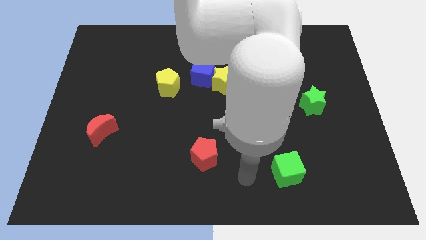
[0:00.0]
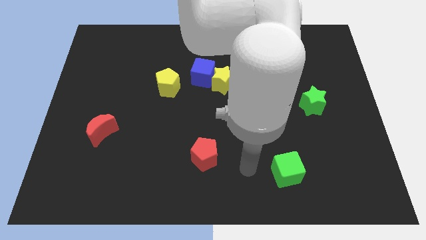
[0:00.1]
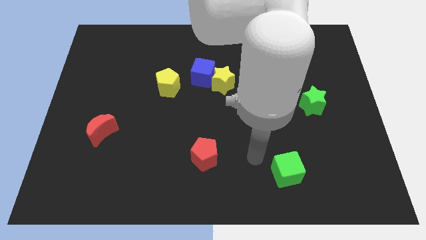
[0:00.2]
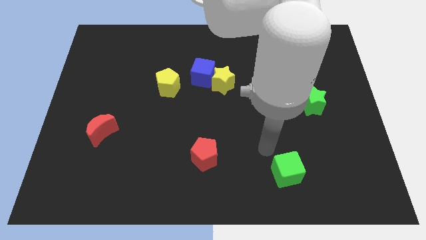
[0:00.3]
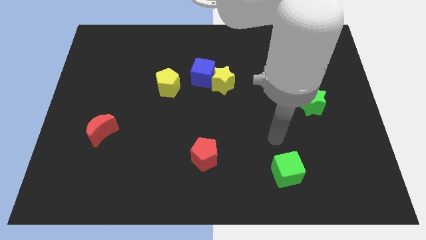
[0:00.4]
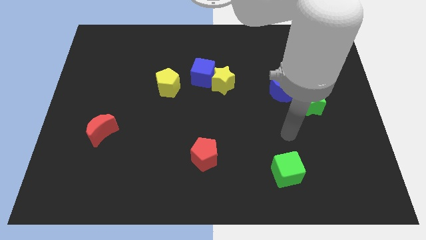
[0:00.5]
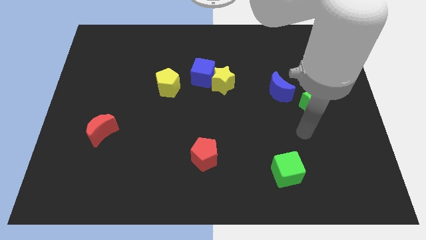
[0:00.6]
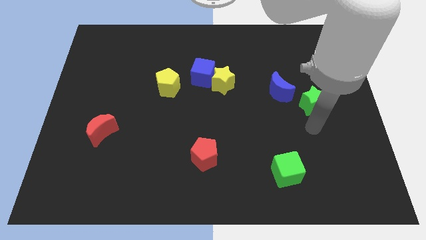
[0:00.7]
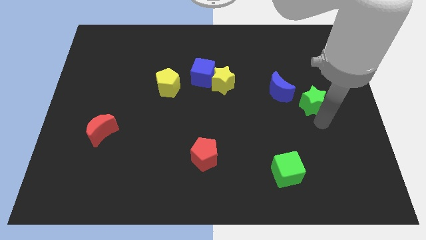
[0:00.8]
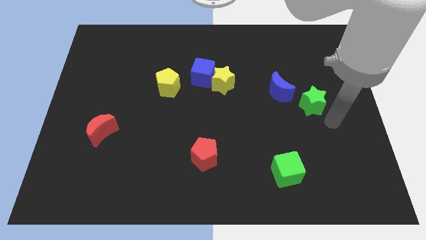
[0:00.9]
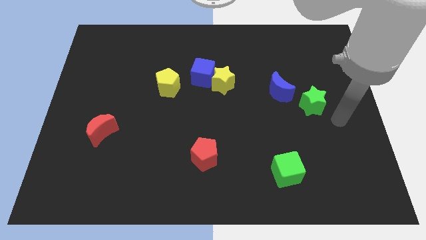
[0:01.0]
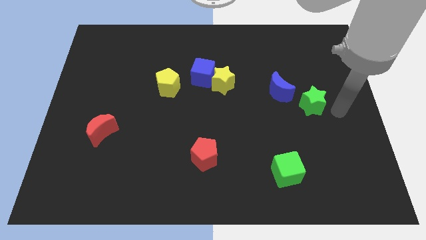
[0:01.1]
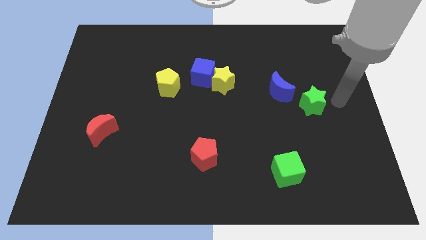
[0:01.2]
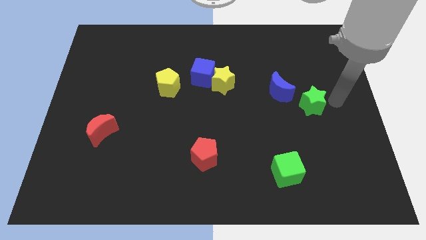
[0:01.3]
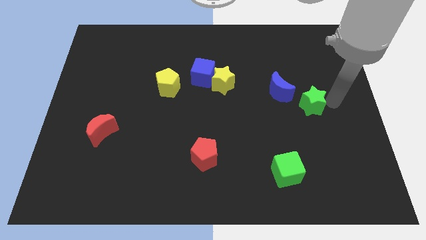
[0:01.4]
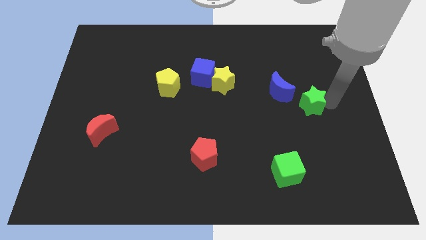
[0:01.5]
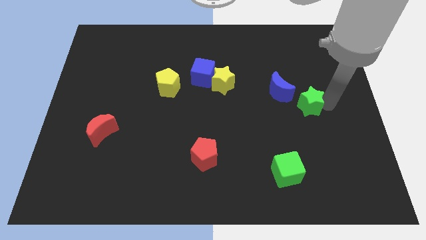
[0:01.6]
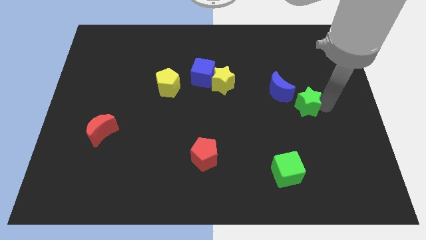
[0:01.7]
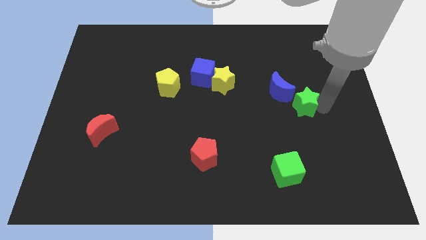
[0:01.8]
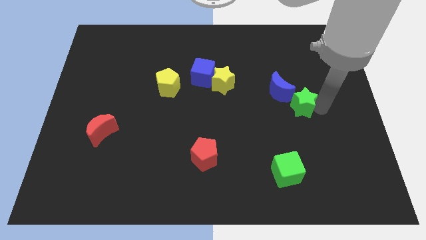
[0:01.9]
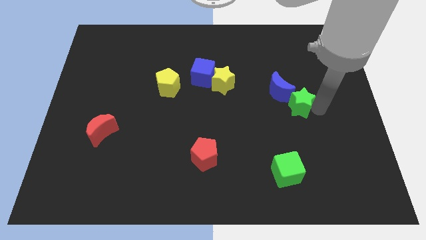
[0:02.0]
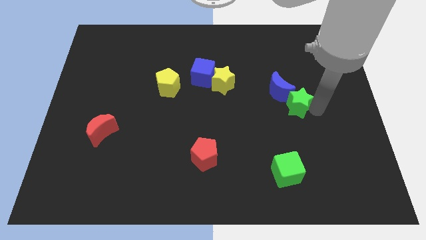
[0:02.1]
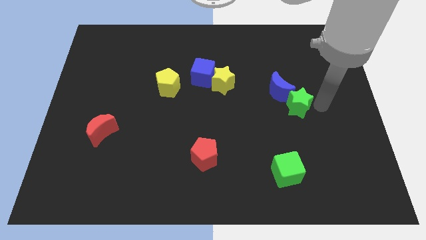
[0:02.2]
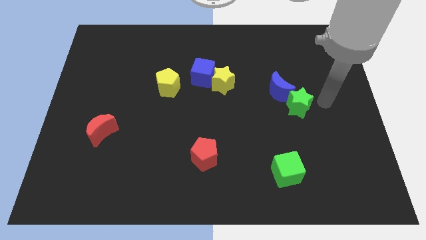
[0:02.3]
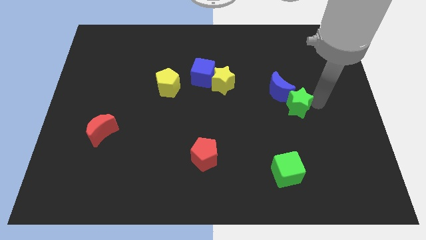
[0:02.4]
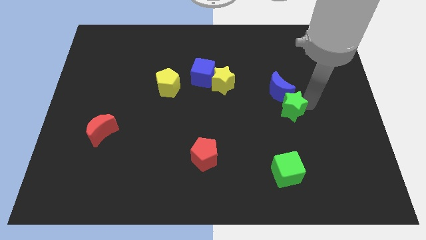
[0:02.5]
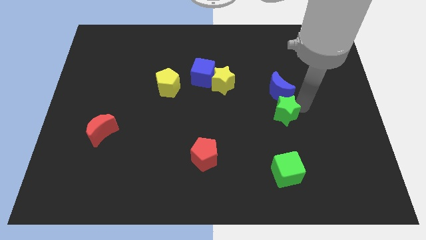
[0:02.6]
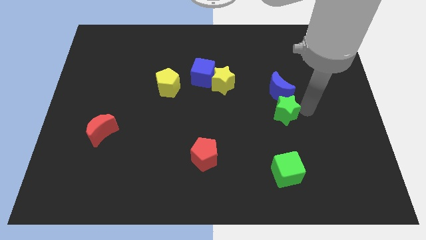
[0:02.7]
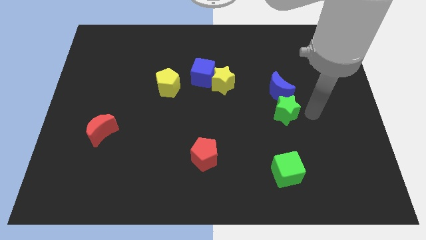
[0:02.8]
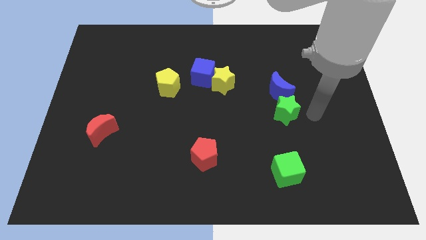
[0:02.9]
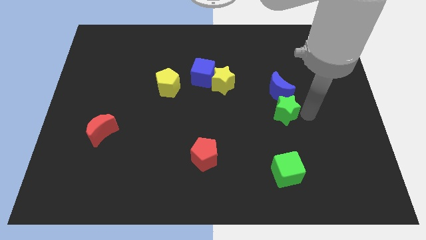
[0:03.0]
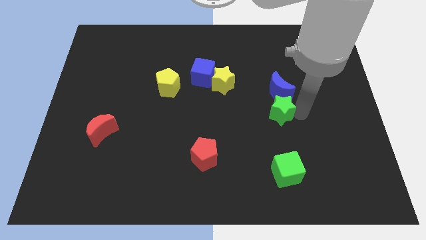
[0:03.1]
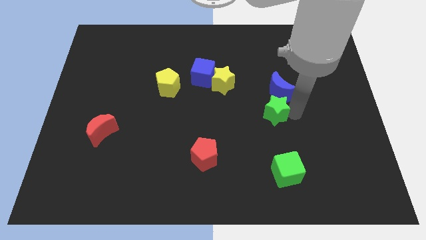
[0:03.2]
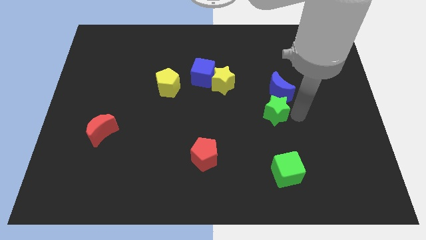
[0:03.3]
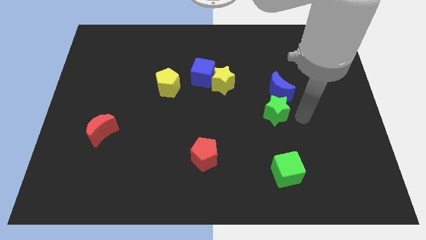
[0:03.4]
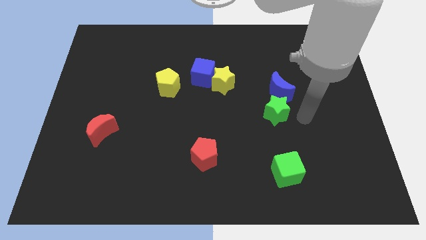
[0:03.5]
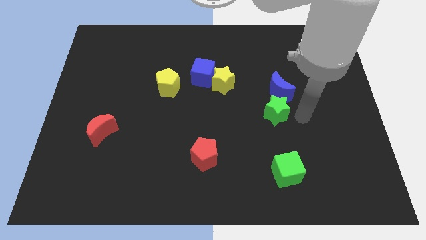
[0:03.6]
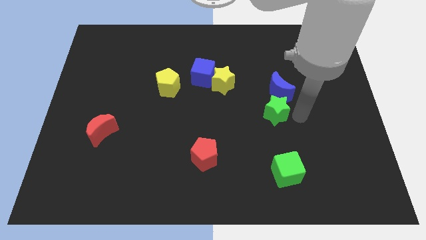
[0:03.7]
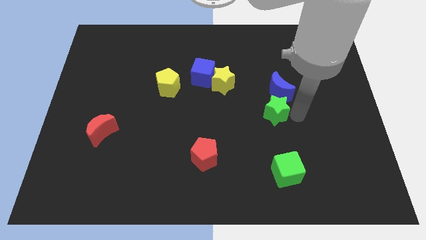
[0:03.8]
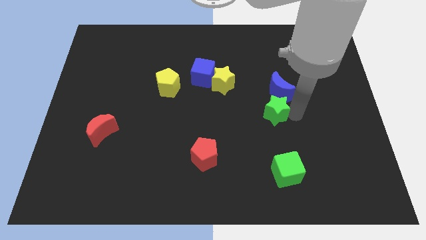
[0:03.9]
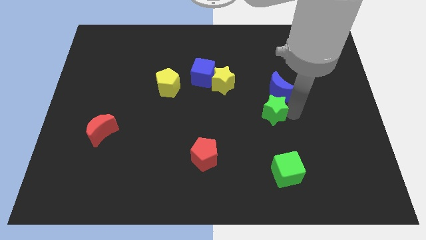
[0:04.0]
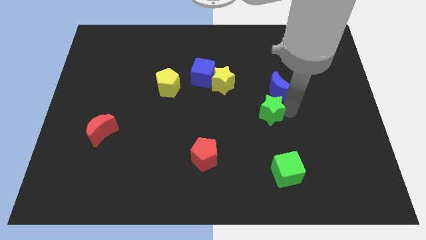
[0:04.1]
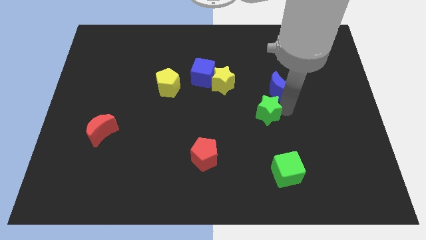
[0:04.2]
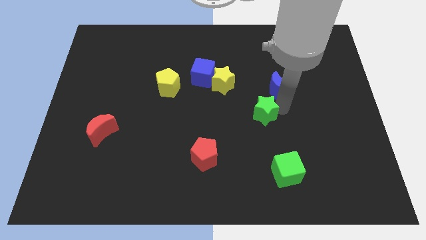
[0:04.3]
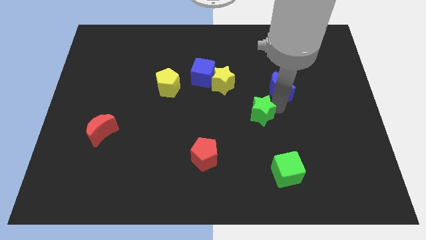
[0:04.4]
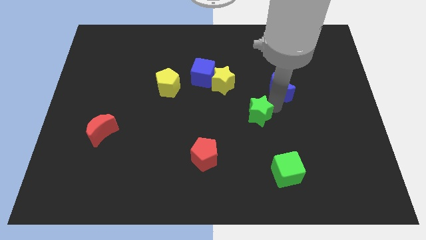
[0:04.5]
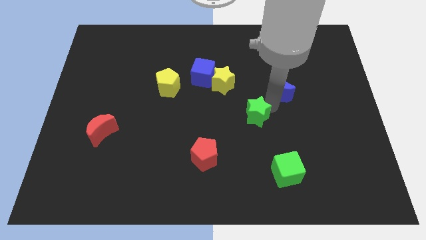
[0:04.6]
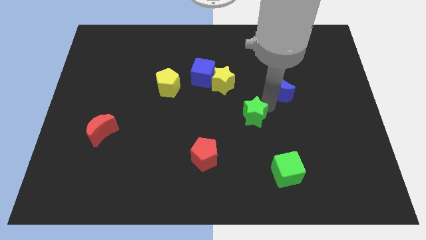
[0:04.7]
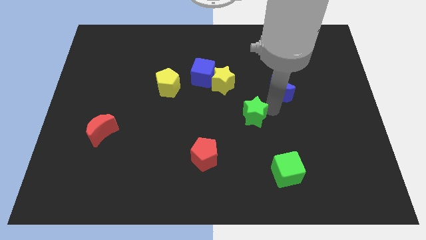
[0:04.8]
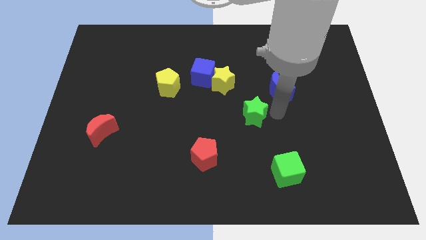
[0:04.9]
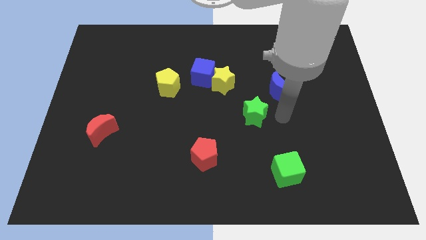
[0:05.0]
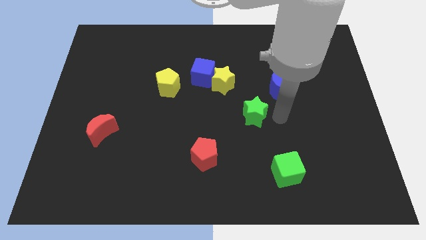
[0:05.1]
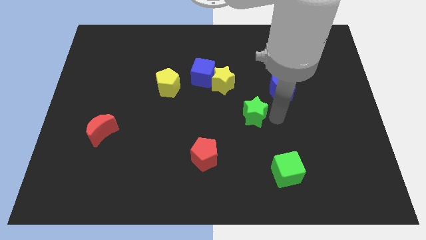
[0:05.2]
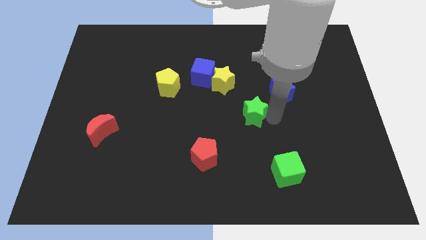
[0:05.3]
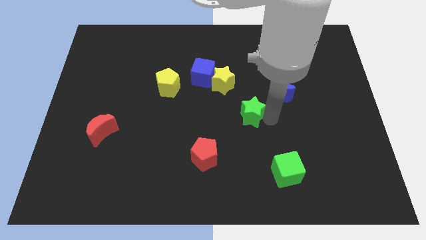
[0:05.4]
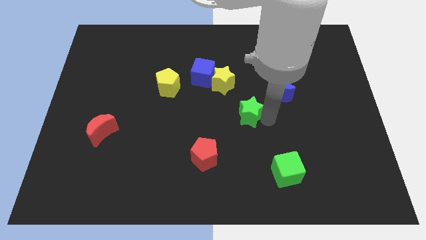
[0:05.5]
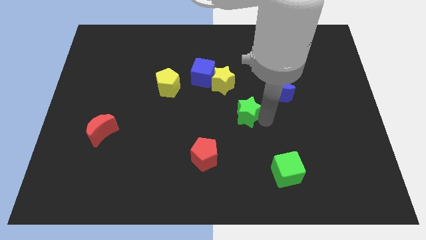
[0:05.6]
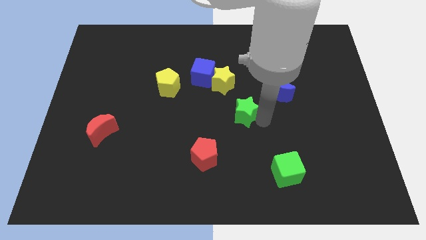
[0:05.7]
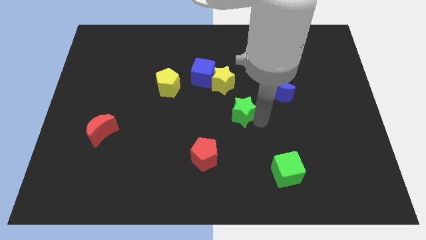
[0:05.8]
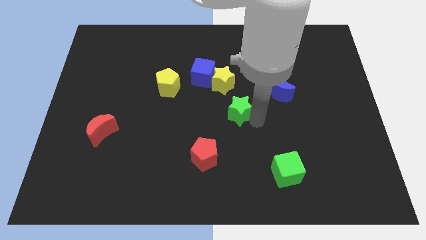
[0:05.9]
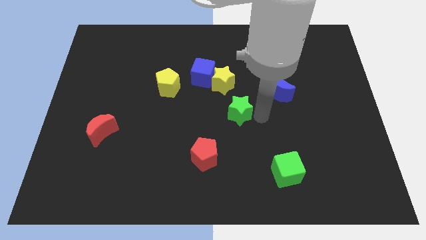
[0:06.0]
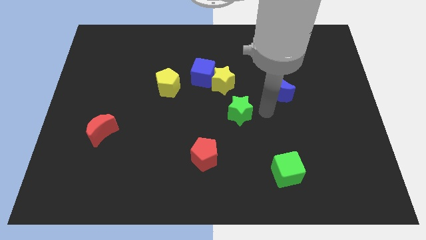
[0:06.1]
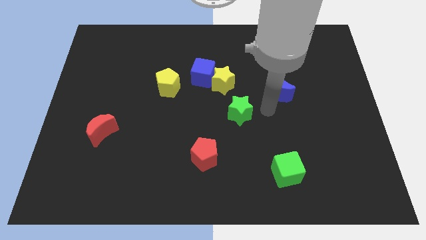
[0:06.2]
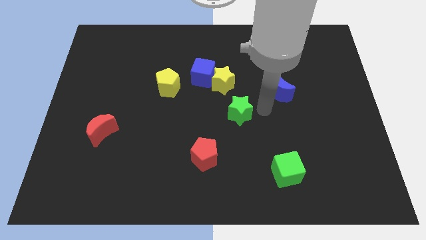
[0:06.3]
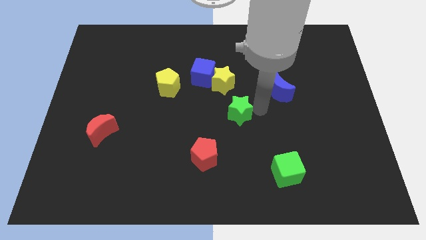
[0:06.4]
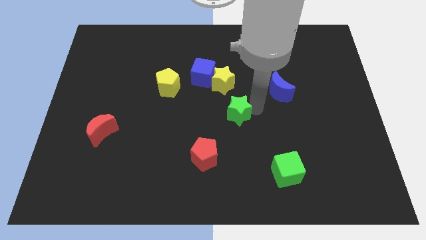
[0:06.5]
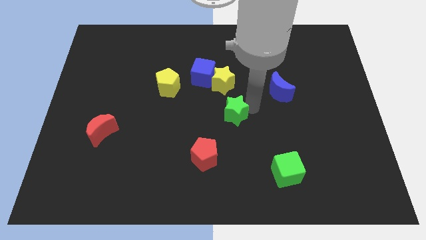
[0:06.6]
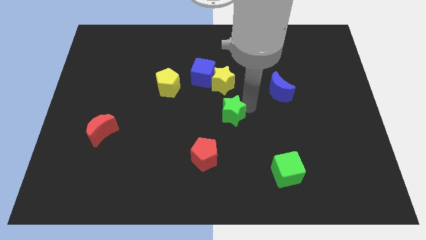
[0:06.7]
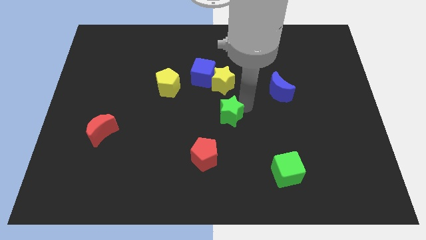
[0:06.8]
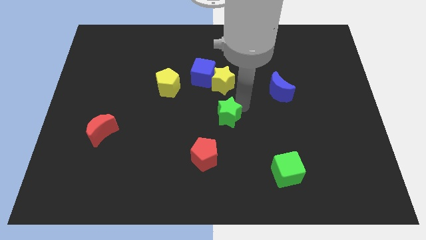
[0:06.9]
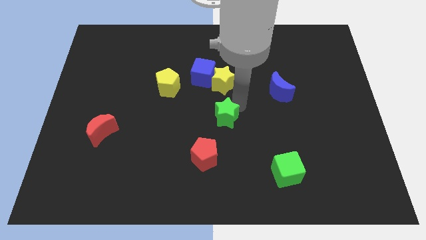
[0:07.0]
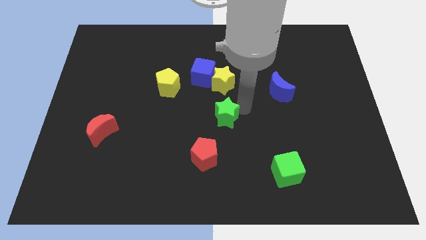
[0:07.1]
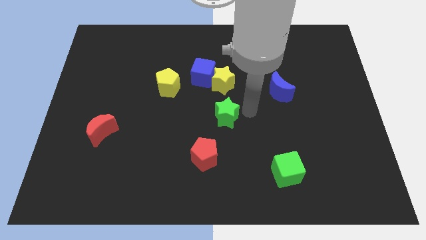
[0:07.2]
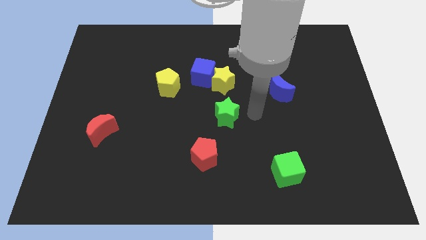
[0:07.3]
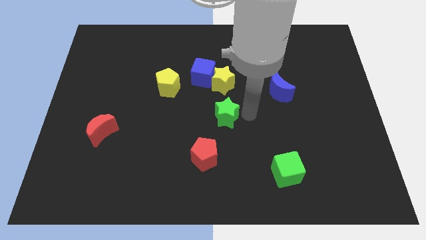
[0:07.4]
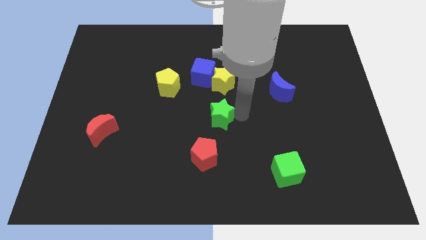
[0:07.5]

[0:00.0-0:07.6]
push the green star to the top side of the red pentagon

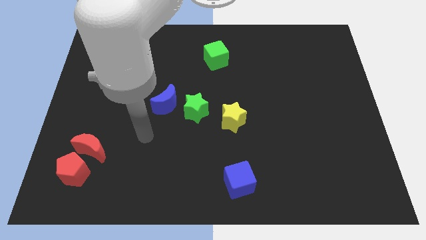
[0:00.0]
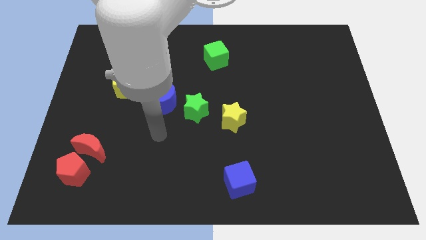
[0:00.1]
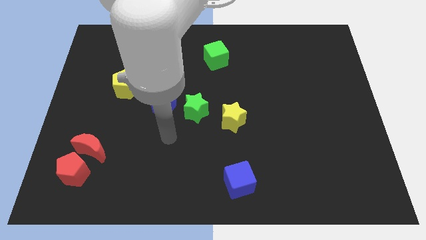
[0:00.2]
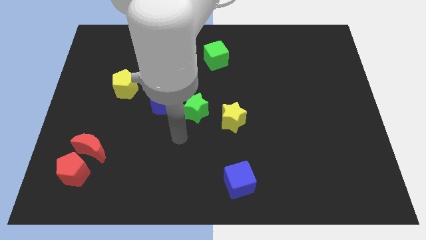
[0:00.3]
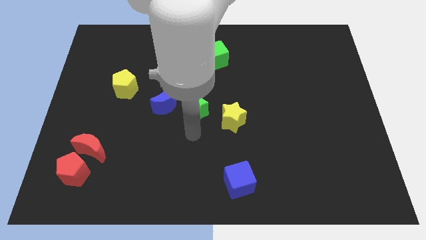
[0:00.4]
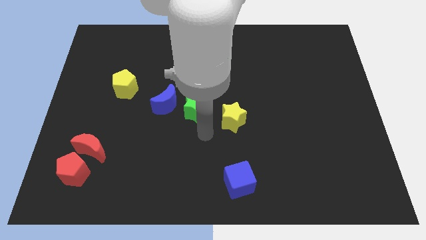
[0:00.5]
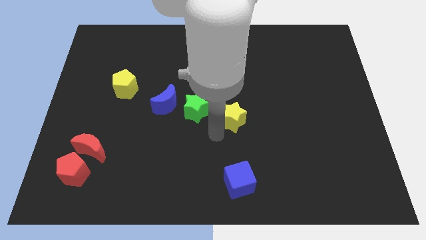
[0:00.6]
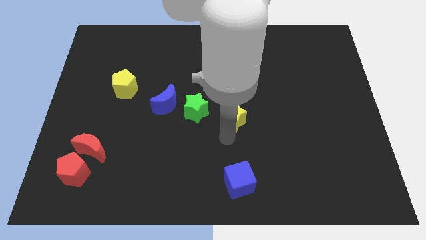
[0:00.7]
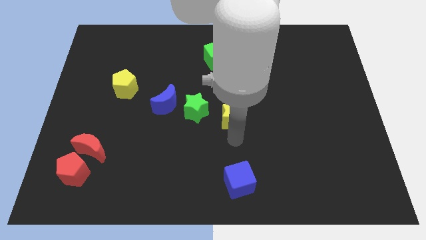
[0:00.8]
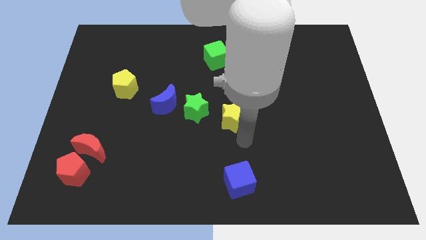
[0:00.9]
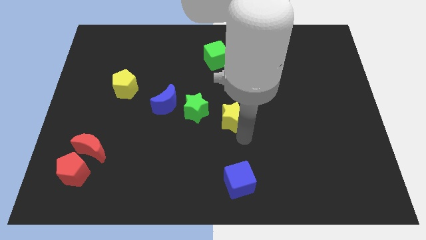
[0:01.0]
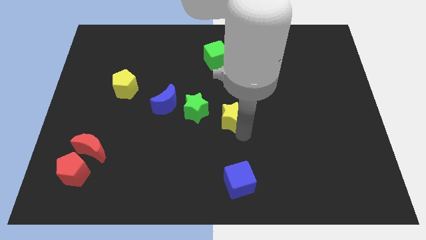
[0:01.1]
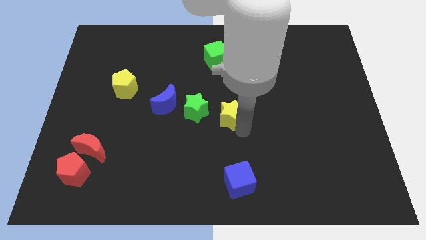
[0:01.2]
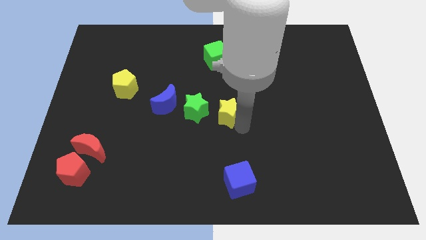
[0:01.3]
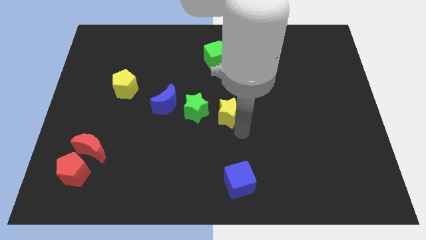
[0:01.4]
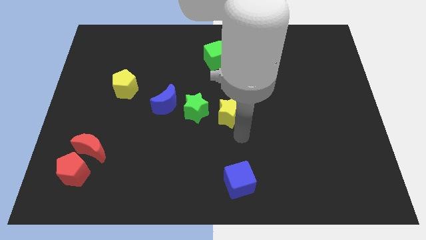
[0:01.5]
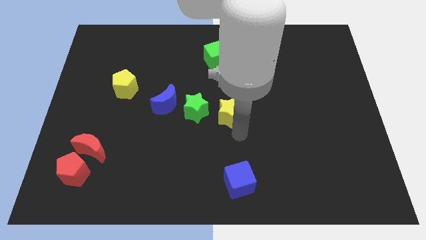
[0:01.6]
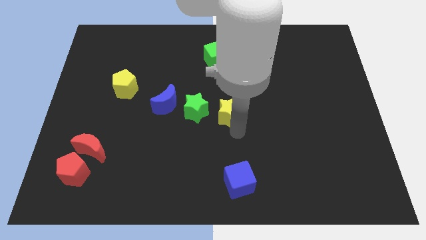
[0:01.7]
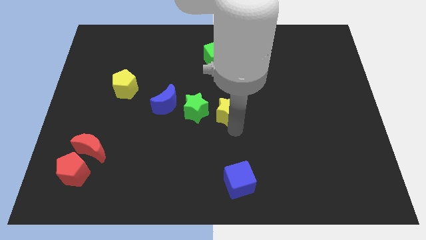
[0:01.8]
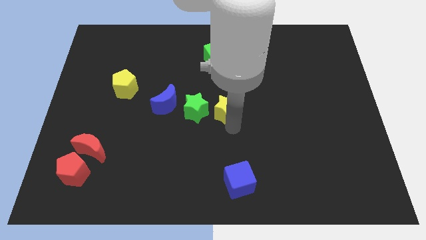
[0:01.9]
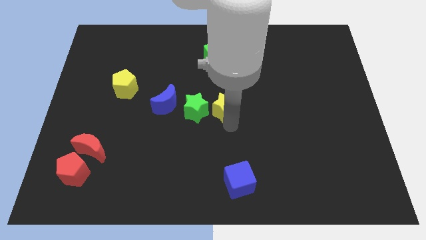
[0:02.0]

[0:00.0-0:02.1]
put the yellow star diagonally up and to the right of the green star
